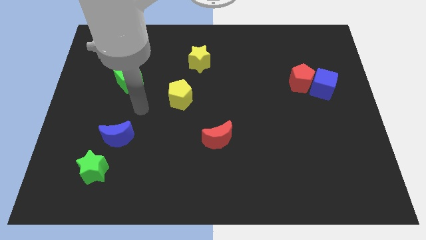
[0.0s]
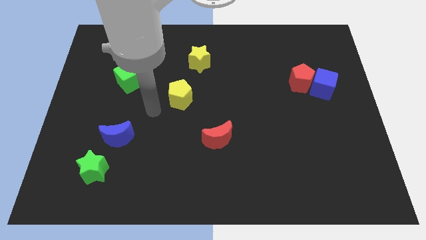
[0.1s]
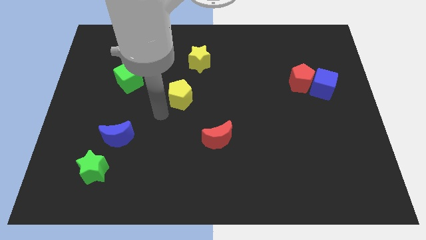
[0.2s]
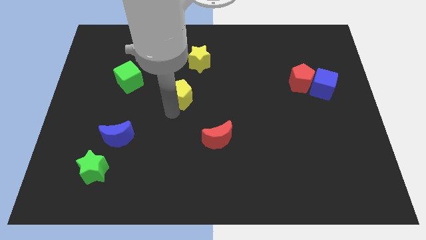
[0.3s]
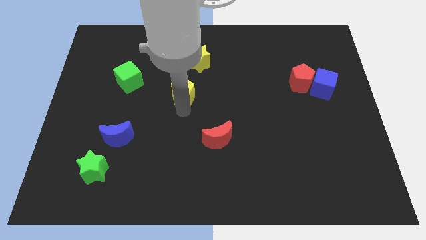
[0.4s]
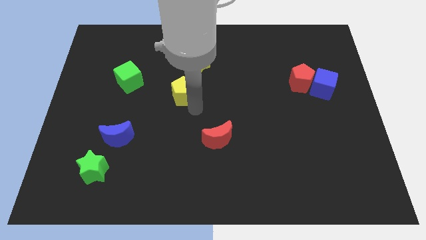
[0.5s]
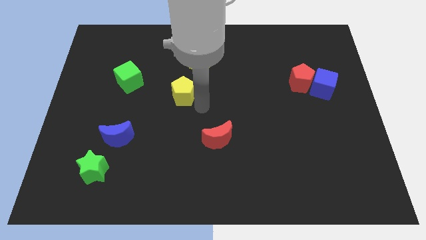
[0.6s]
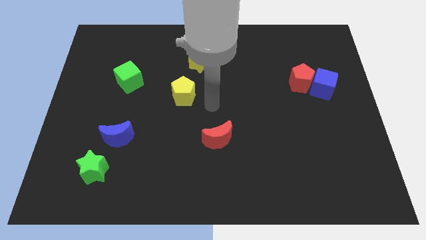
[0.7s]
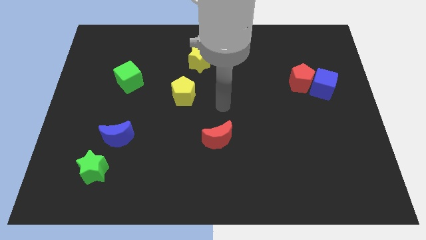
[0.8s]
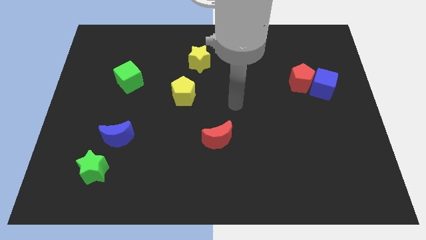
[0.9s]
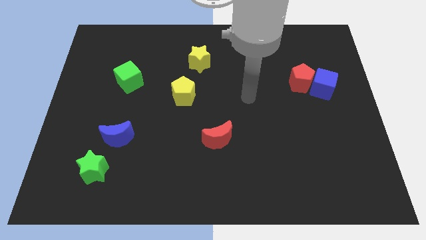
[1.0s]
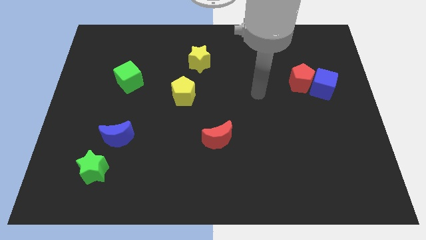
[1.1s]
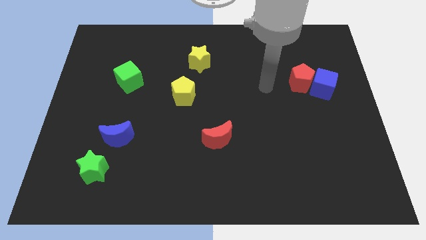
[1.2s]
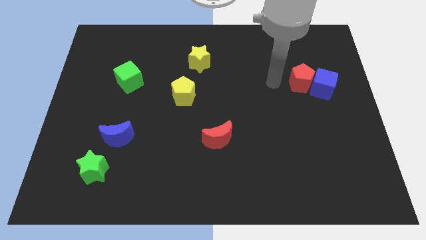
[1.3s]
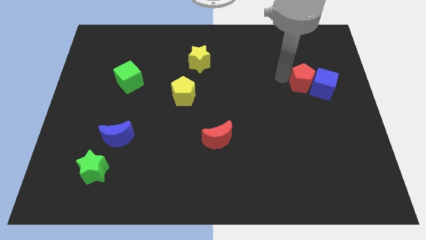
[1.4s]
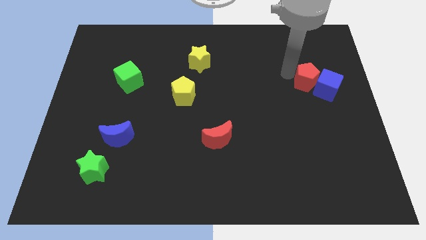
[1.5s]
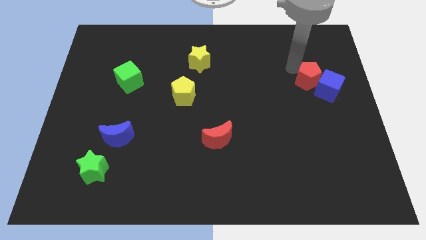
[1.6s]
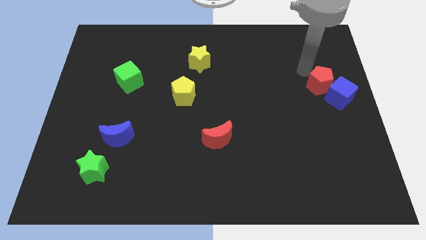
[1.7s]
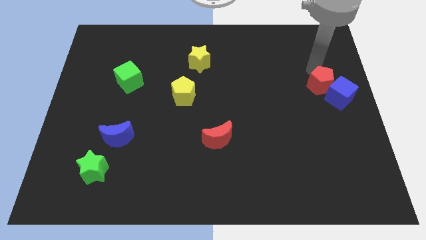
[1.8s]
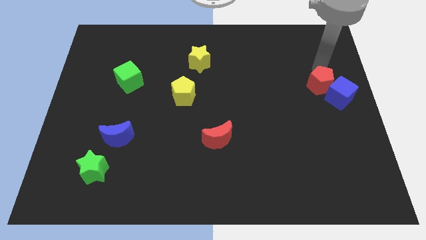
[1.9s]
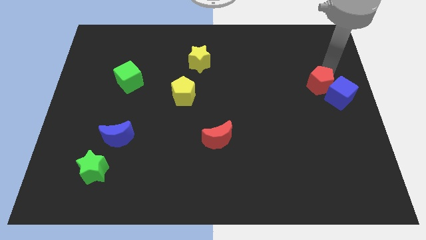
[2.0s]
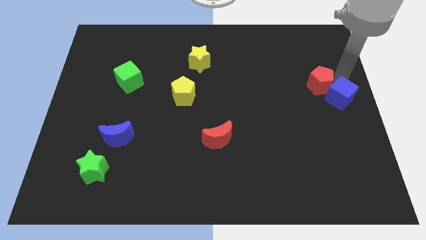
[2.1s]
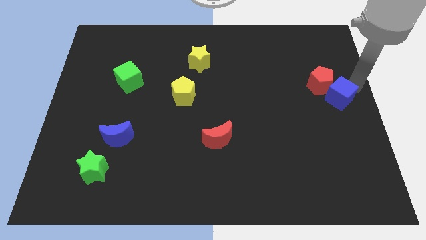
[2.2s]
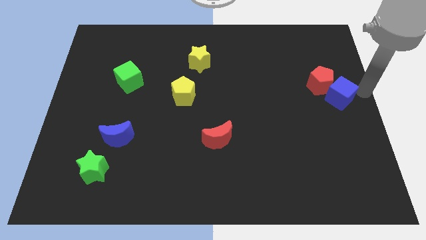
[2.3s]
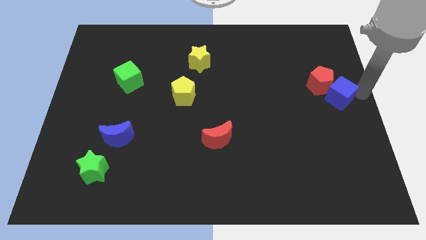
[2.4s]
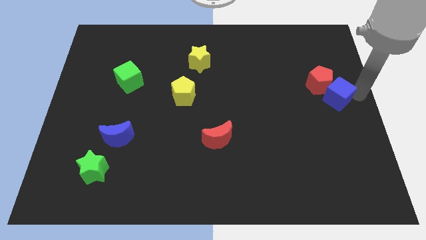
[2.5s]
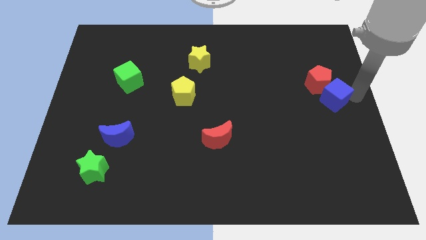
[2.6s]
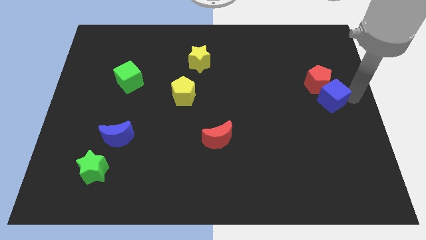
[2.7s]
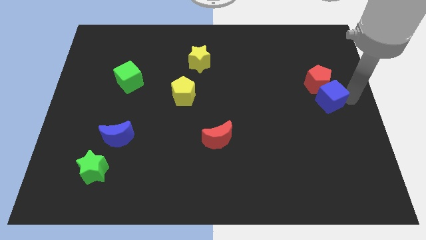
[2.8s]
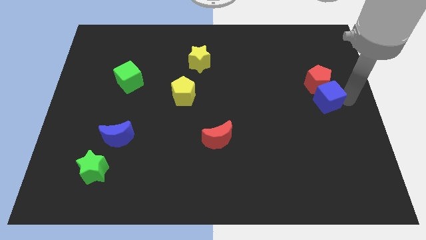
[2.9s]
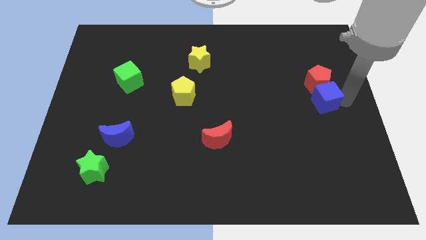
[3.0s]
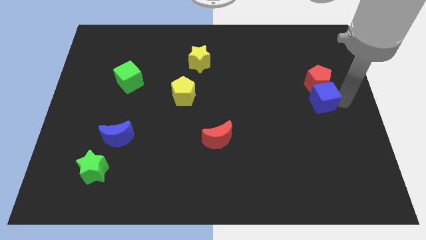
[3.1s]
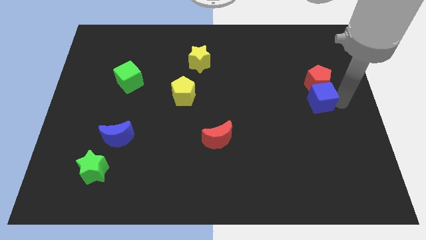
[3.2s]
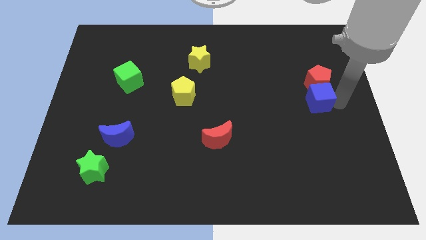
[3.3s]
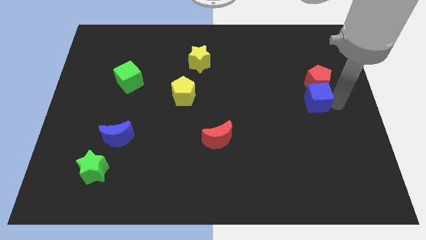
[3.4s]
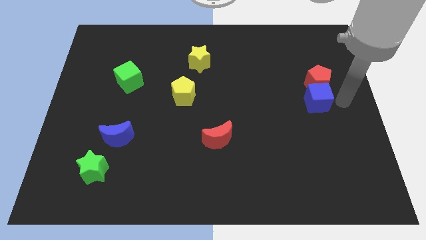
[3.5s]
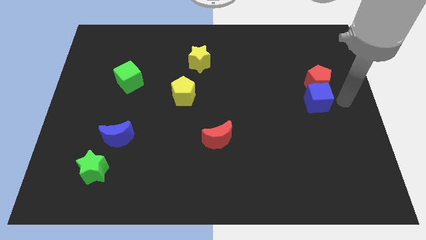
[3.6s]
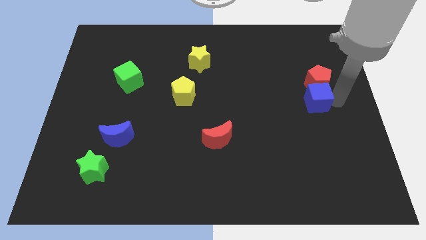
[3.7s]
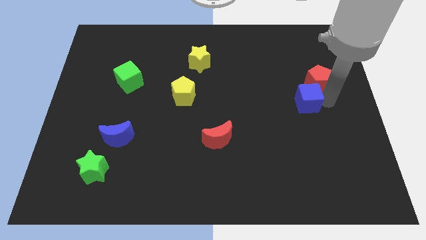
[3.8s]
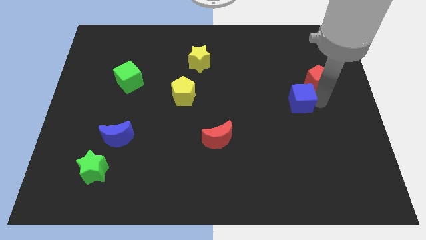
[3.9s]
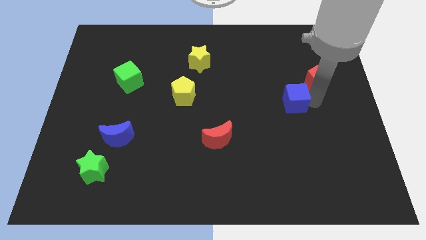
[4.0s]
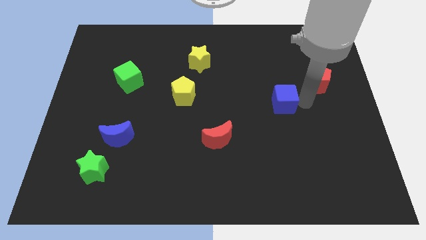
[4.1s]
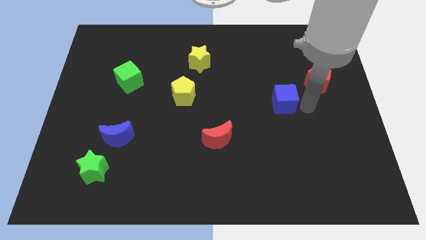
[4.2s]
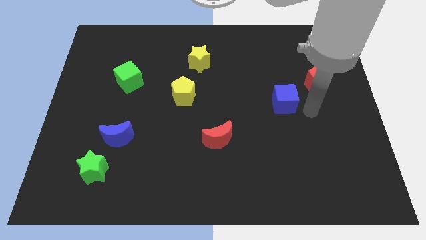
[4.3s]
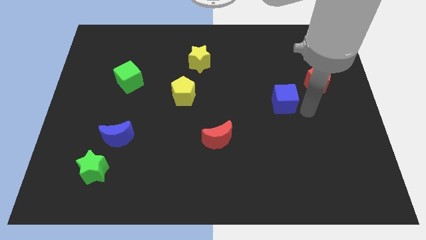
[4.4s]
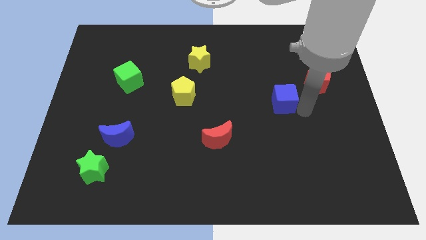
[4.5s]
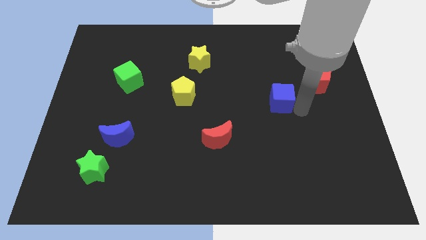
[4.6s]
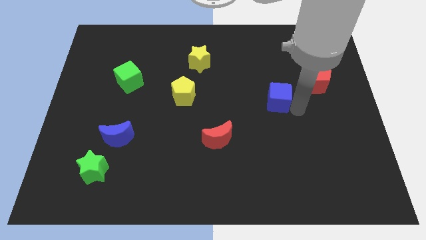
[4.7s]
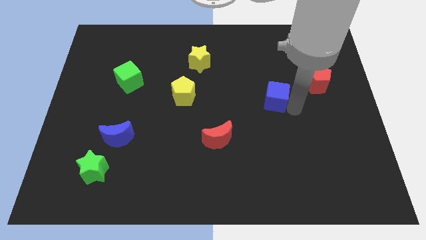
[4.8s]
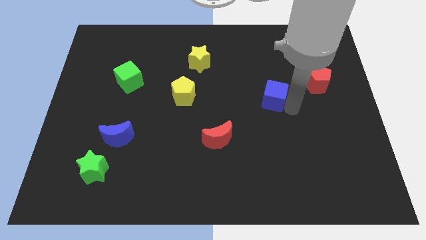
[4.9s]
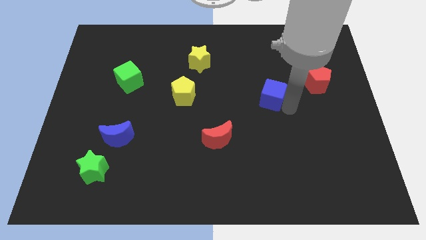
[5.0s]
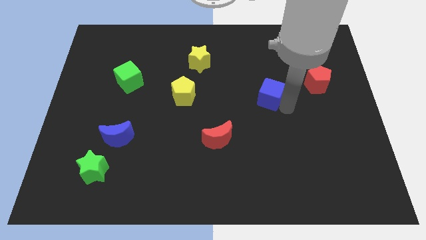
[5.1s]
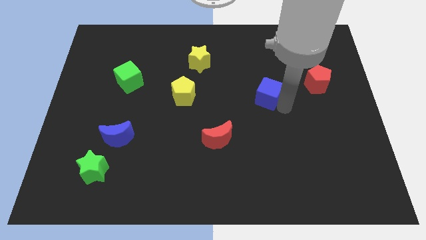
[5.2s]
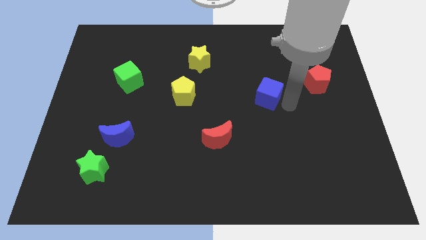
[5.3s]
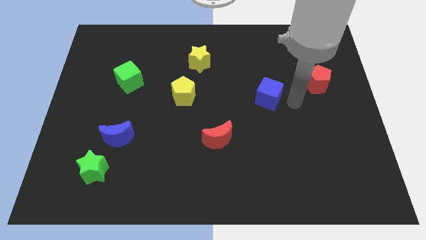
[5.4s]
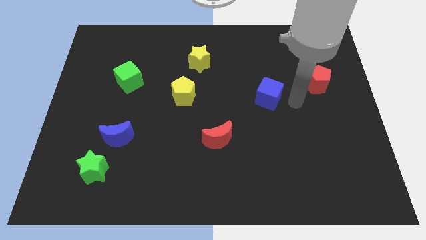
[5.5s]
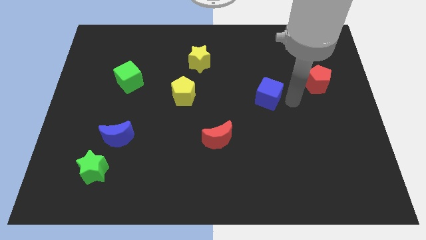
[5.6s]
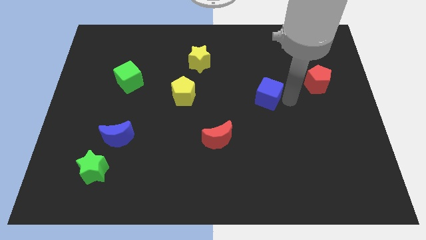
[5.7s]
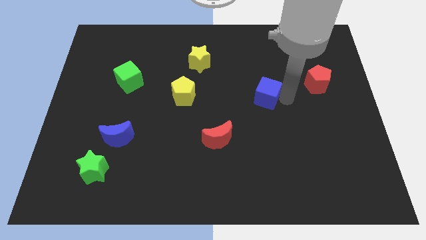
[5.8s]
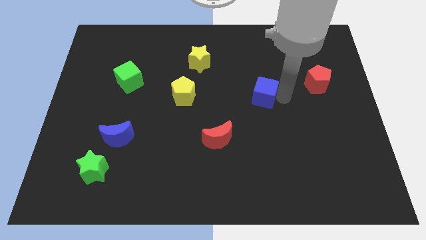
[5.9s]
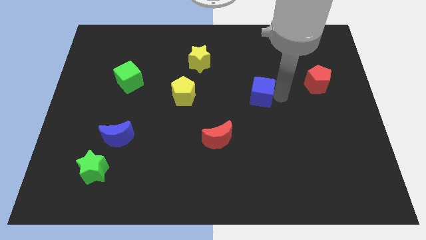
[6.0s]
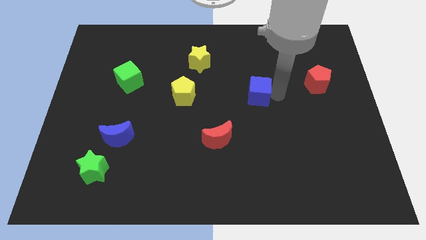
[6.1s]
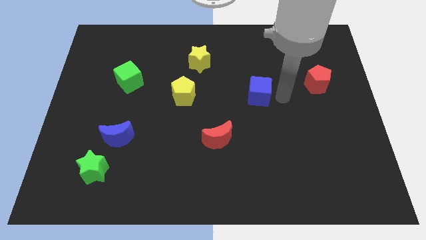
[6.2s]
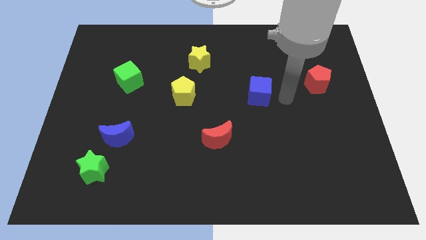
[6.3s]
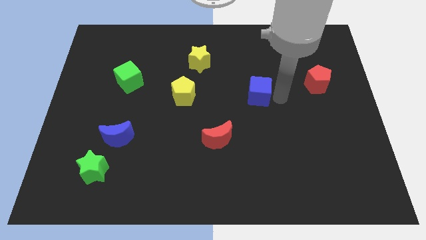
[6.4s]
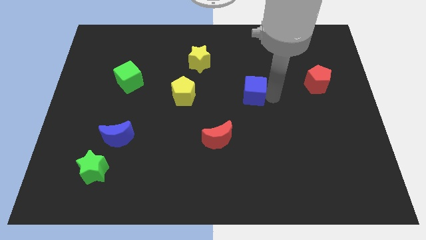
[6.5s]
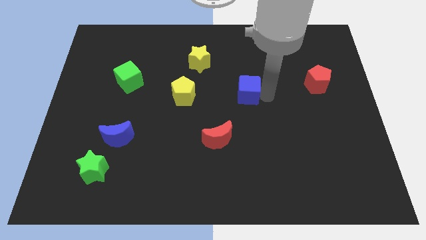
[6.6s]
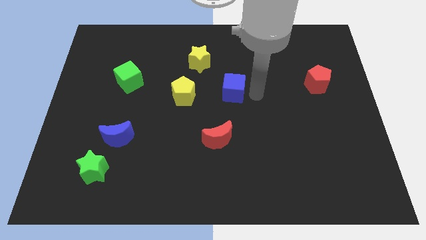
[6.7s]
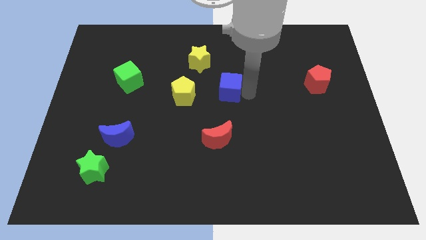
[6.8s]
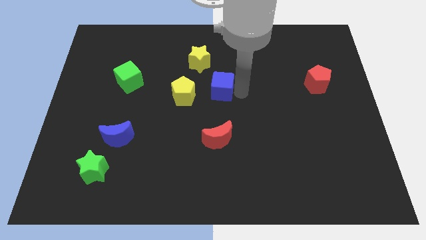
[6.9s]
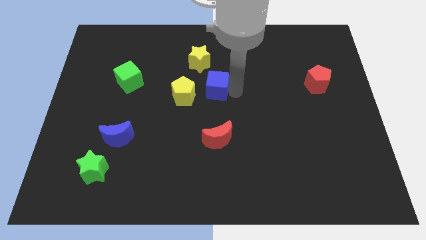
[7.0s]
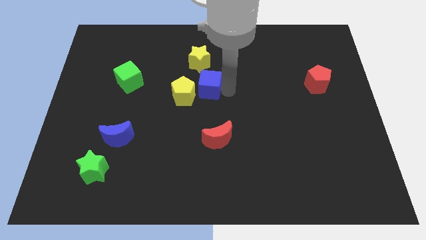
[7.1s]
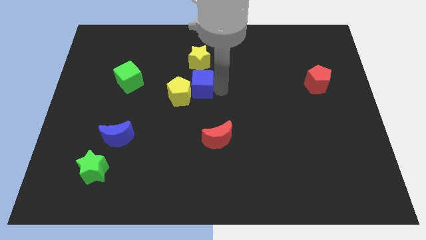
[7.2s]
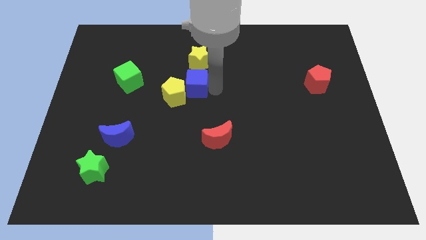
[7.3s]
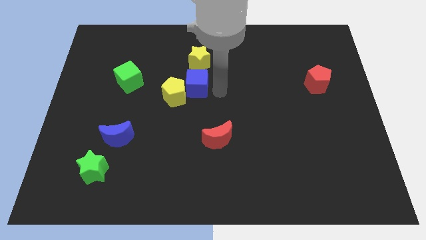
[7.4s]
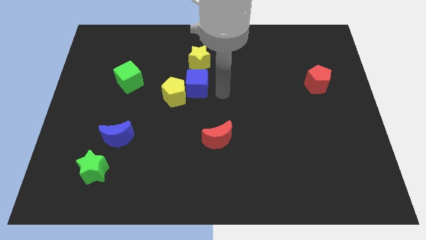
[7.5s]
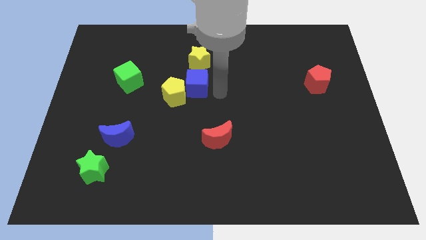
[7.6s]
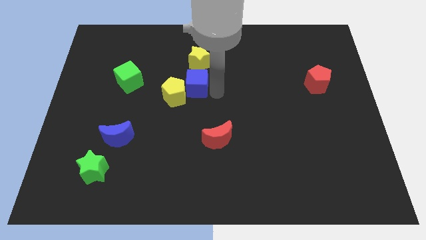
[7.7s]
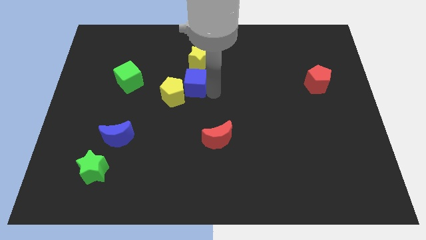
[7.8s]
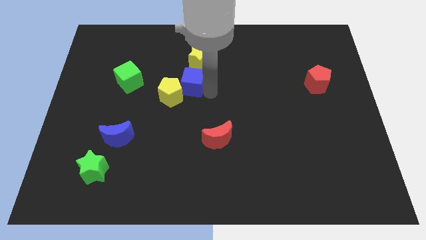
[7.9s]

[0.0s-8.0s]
put the blue cube to the right side of the green cube
